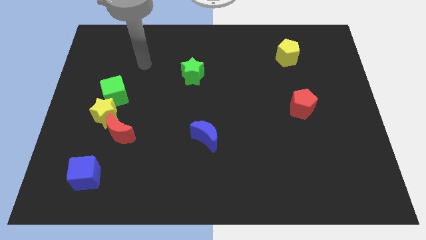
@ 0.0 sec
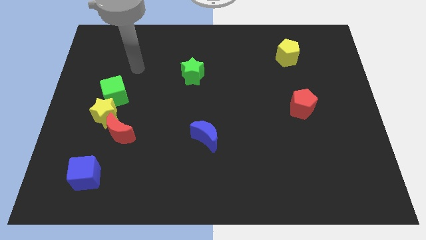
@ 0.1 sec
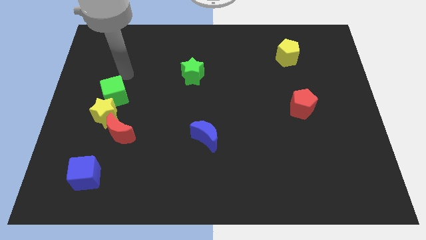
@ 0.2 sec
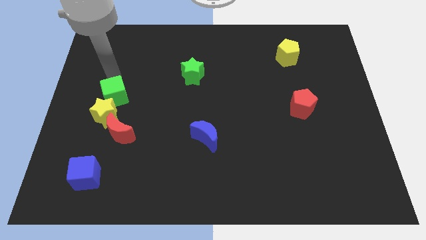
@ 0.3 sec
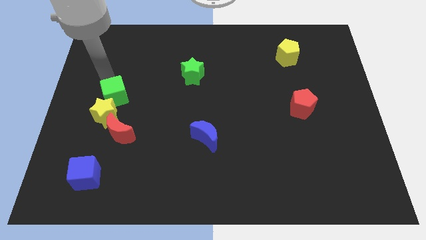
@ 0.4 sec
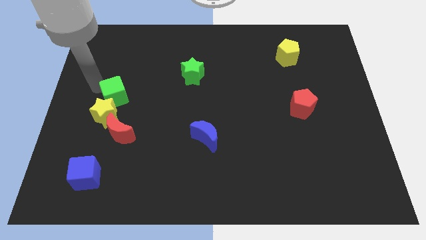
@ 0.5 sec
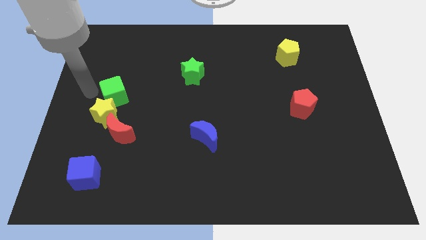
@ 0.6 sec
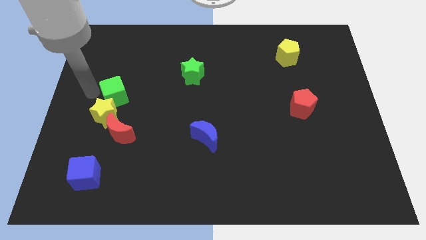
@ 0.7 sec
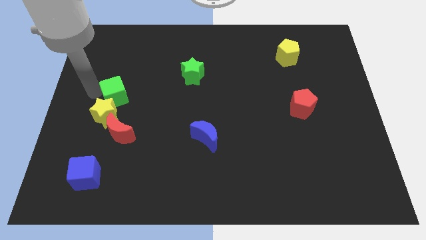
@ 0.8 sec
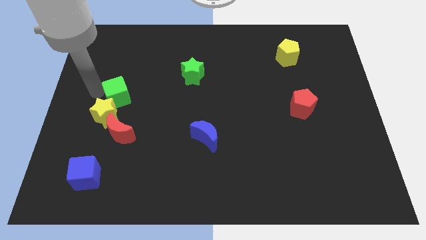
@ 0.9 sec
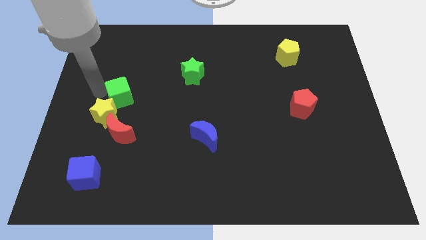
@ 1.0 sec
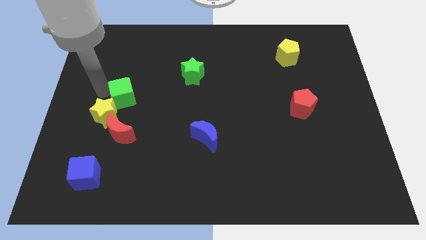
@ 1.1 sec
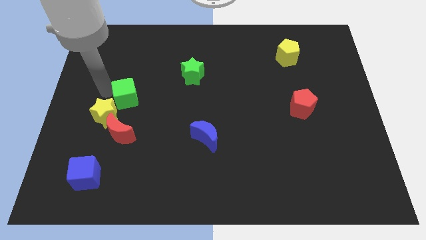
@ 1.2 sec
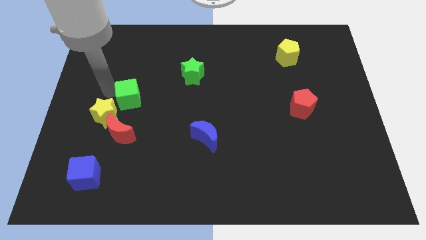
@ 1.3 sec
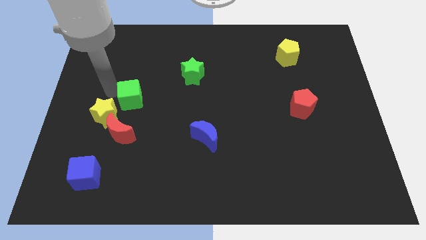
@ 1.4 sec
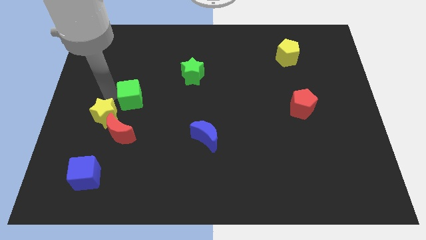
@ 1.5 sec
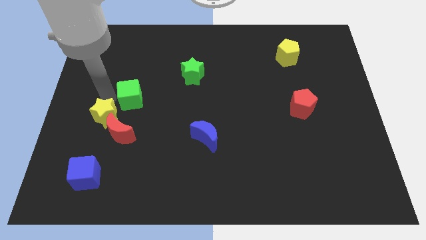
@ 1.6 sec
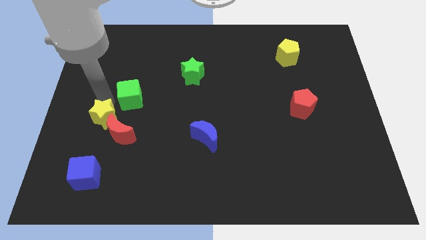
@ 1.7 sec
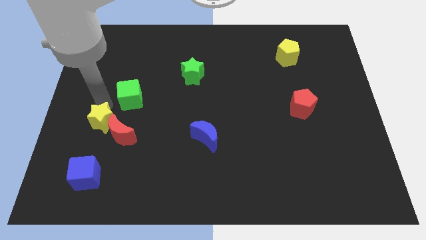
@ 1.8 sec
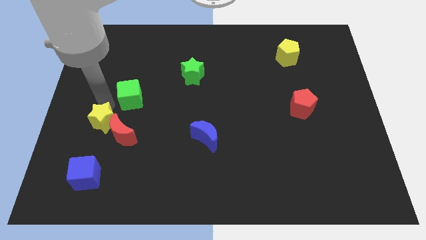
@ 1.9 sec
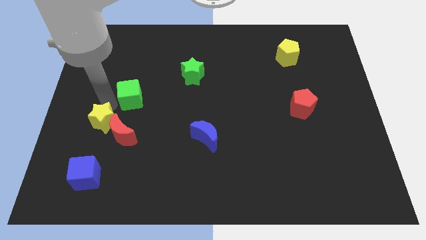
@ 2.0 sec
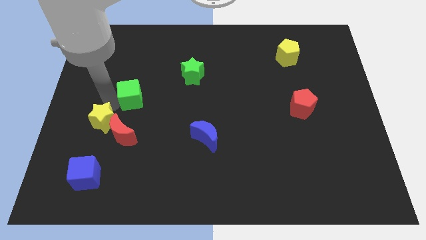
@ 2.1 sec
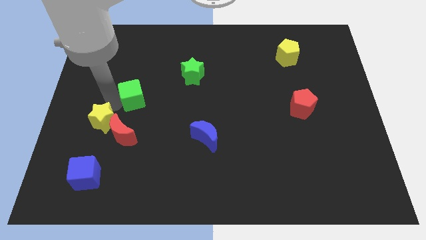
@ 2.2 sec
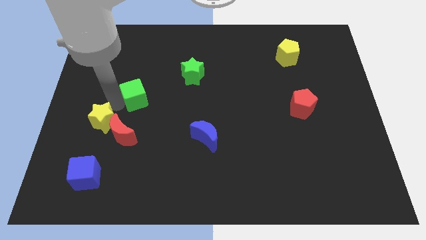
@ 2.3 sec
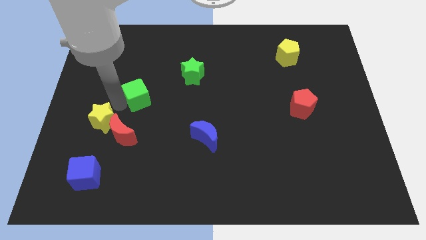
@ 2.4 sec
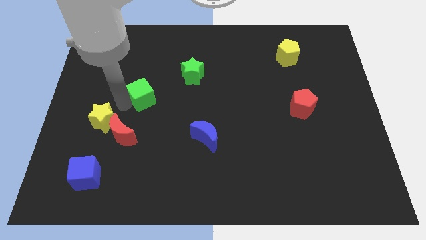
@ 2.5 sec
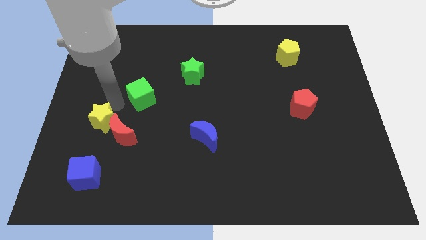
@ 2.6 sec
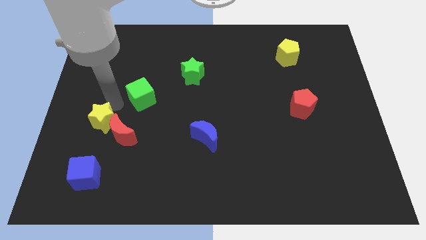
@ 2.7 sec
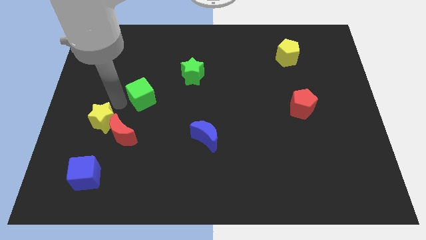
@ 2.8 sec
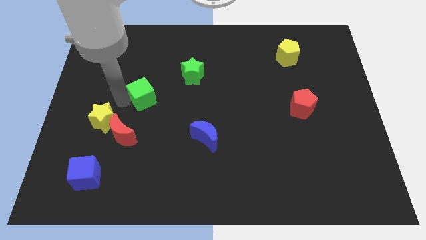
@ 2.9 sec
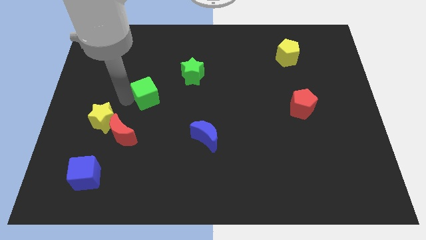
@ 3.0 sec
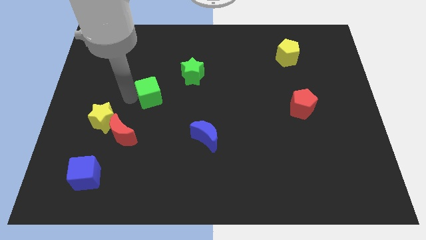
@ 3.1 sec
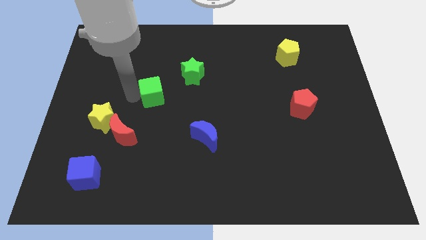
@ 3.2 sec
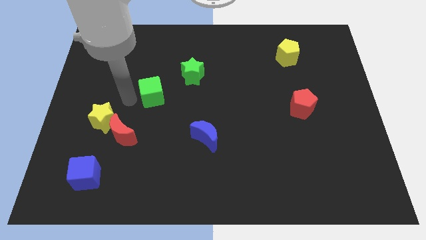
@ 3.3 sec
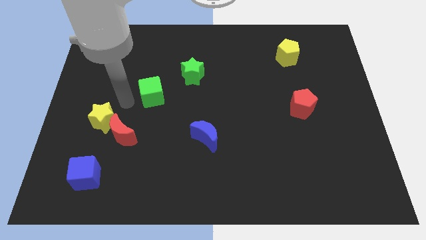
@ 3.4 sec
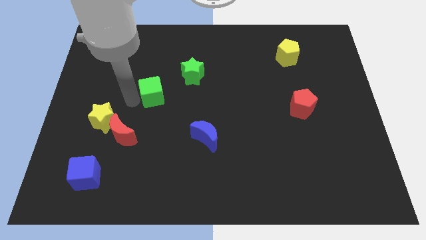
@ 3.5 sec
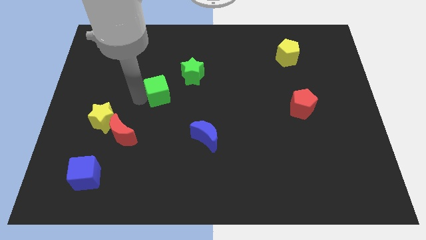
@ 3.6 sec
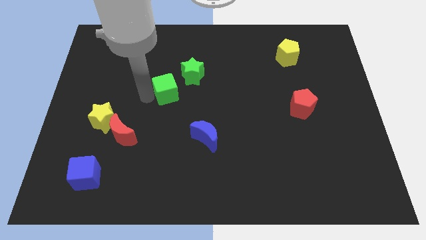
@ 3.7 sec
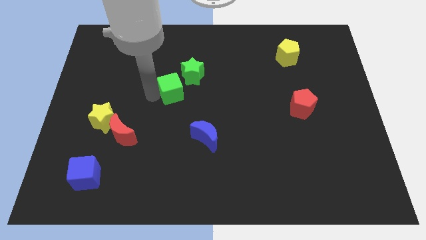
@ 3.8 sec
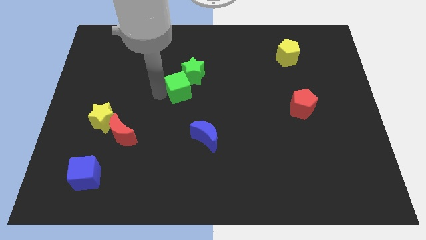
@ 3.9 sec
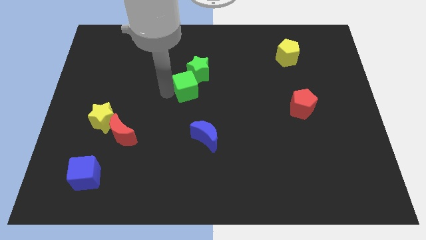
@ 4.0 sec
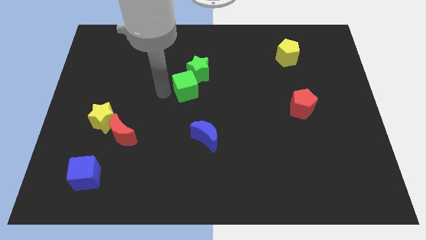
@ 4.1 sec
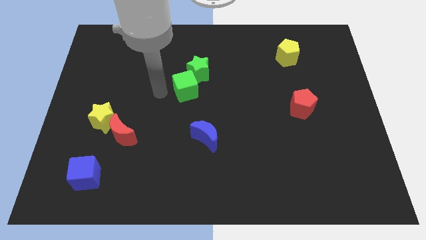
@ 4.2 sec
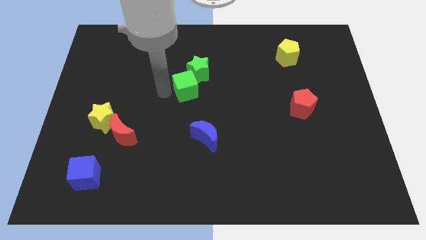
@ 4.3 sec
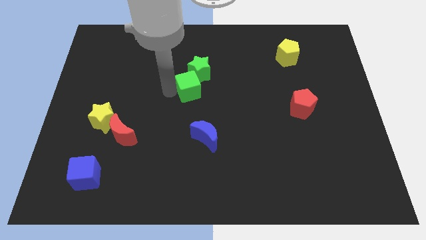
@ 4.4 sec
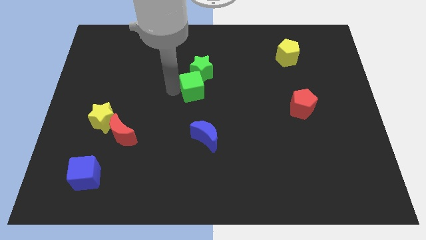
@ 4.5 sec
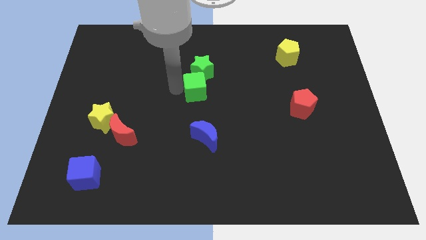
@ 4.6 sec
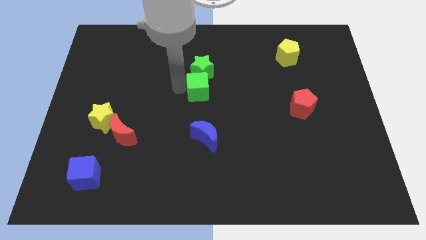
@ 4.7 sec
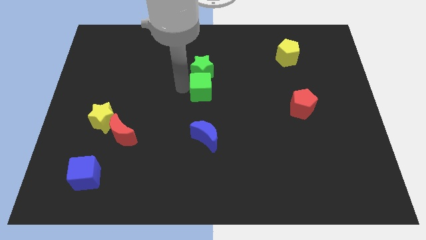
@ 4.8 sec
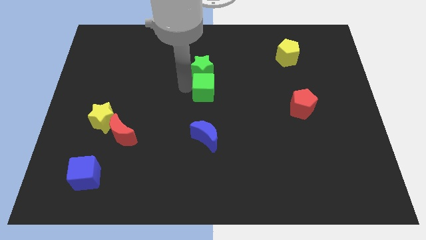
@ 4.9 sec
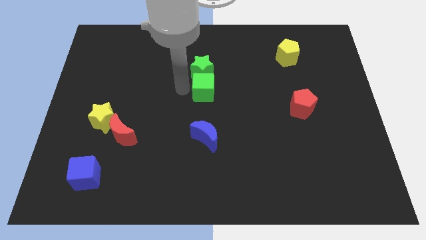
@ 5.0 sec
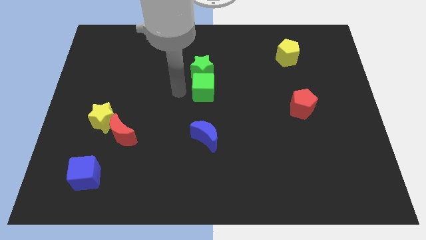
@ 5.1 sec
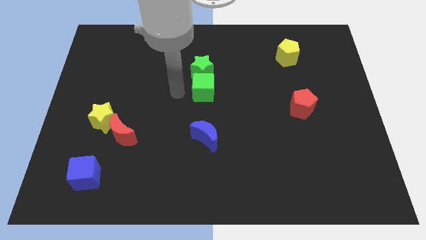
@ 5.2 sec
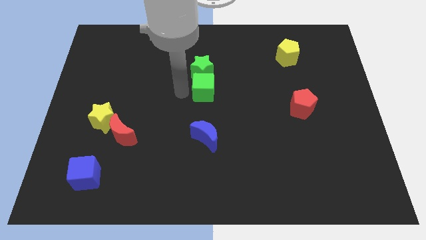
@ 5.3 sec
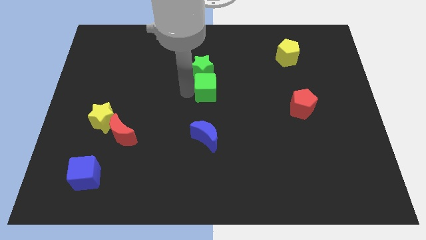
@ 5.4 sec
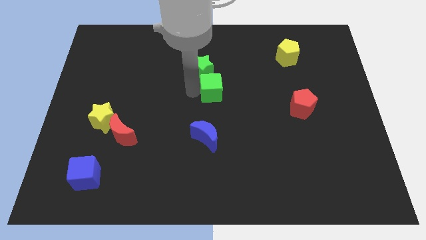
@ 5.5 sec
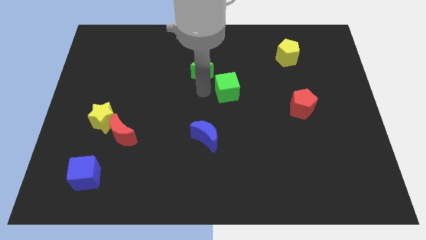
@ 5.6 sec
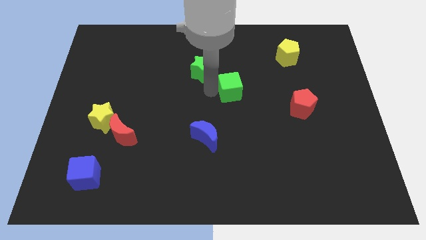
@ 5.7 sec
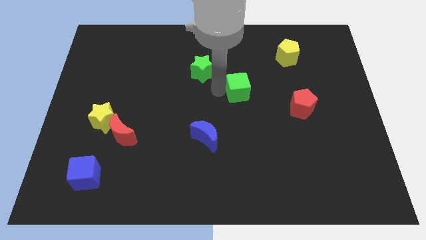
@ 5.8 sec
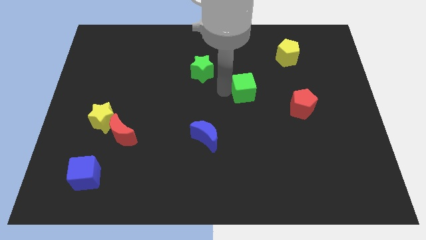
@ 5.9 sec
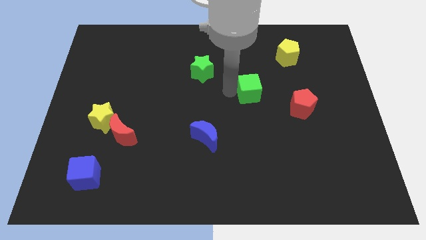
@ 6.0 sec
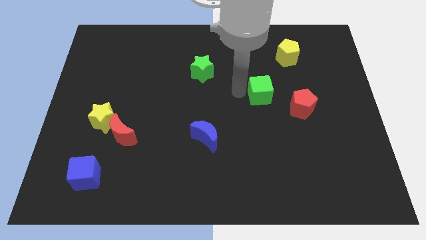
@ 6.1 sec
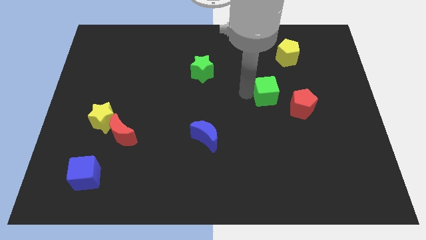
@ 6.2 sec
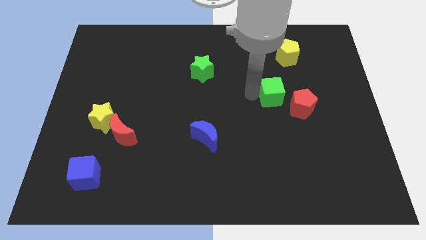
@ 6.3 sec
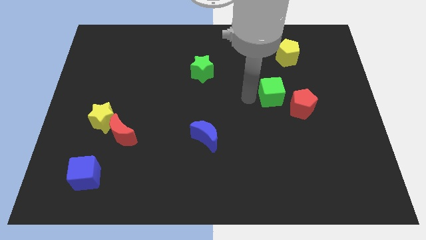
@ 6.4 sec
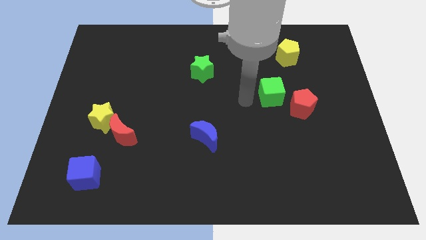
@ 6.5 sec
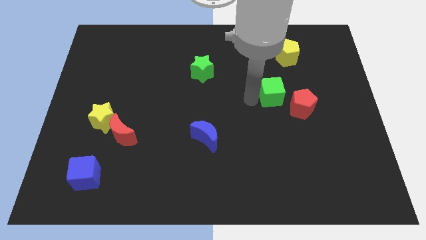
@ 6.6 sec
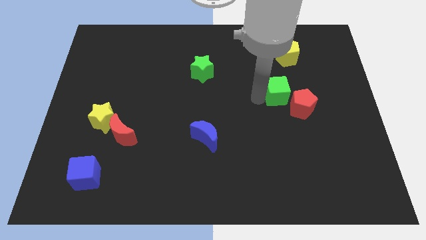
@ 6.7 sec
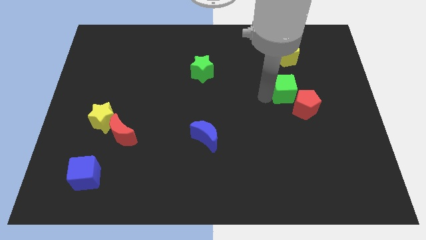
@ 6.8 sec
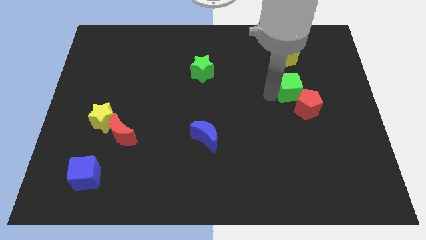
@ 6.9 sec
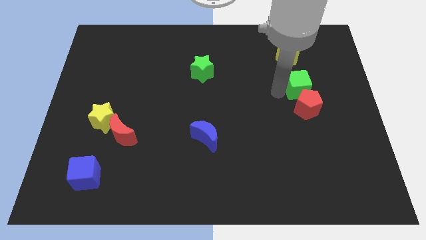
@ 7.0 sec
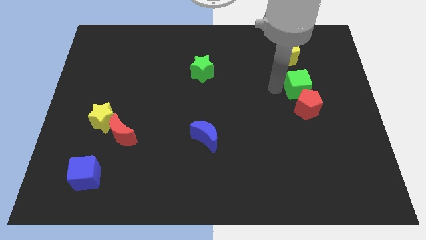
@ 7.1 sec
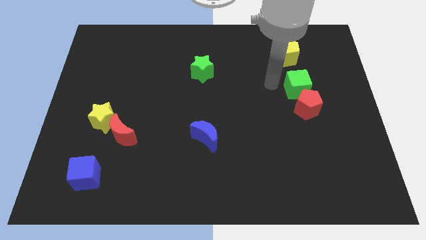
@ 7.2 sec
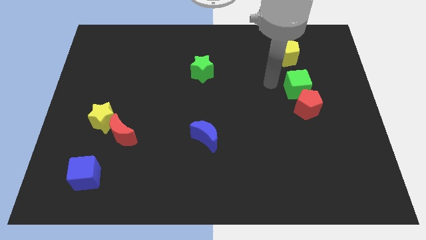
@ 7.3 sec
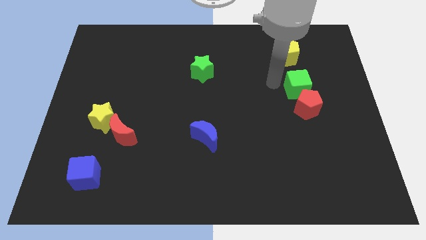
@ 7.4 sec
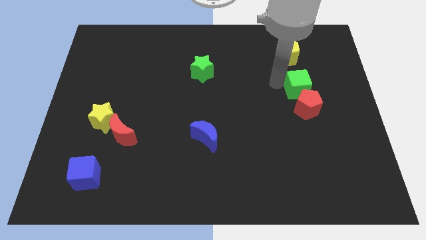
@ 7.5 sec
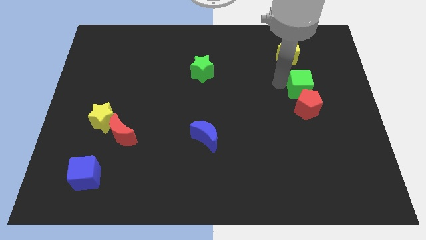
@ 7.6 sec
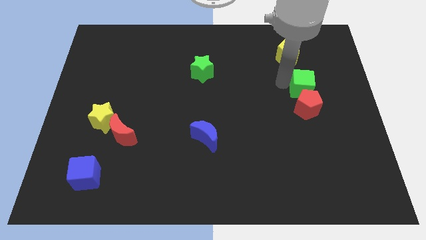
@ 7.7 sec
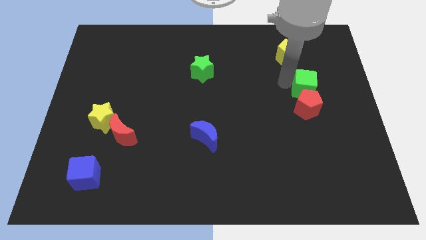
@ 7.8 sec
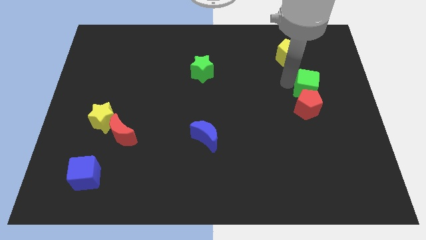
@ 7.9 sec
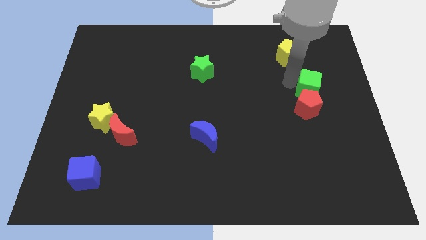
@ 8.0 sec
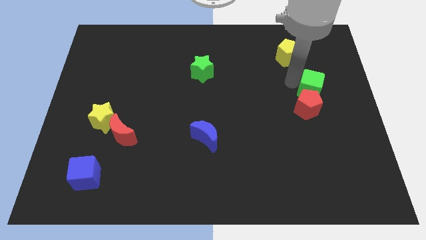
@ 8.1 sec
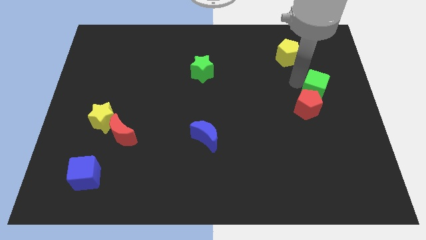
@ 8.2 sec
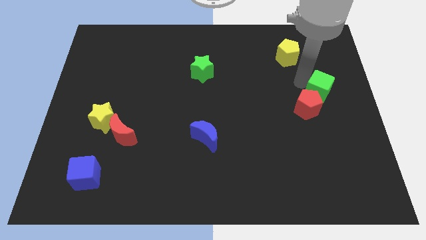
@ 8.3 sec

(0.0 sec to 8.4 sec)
push the green cube to the right side
